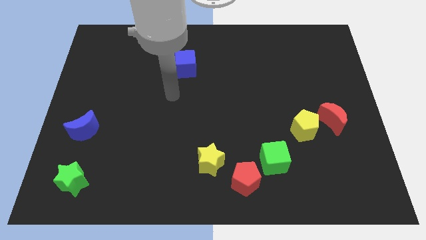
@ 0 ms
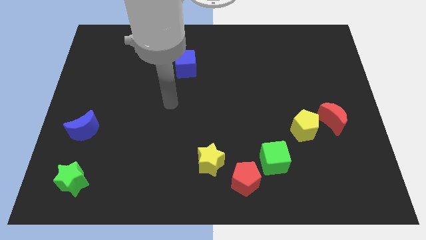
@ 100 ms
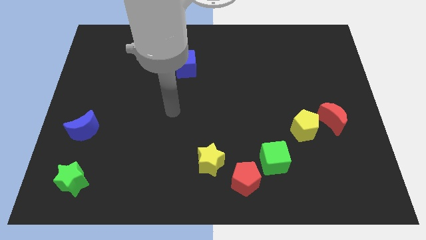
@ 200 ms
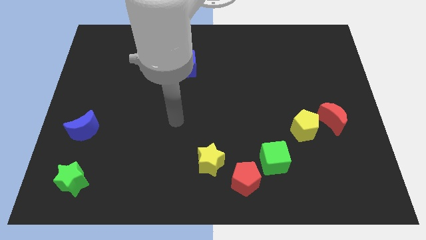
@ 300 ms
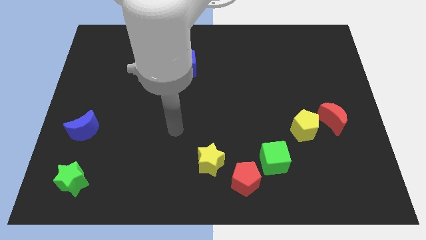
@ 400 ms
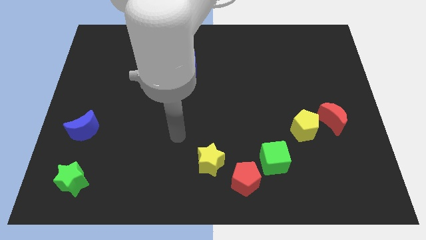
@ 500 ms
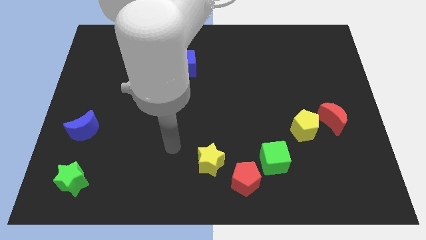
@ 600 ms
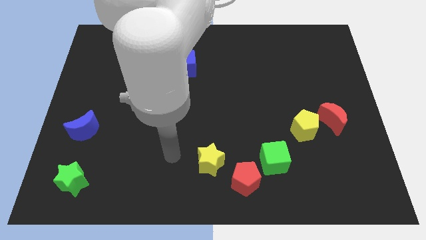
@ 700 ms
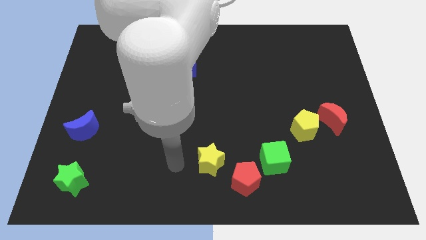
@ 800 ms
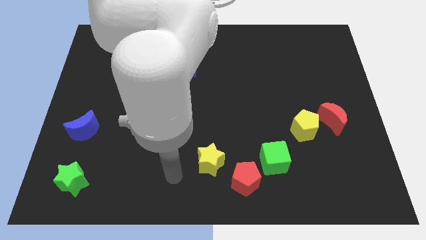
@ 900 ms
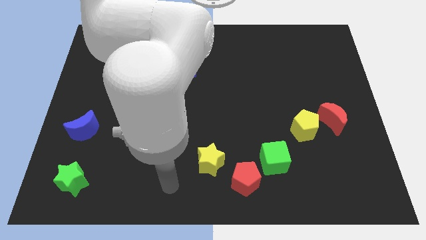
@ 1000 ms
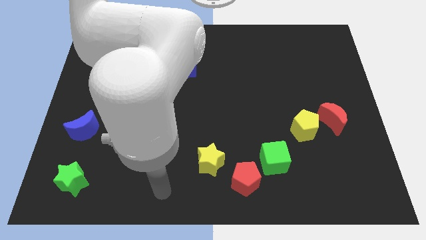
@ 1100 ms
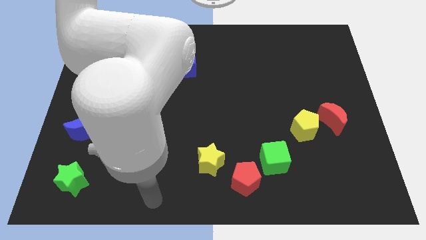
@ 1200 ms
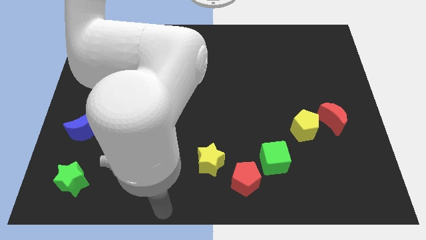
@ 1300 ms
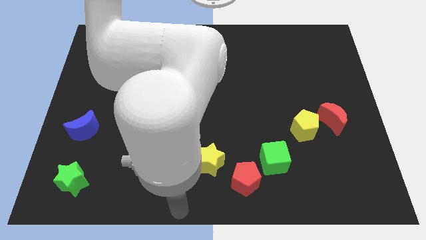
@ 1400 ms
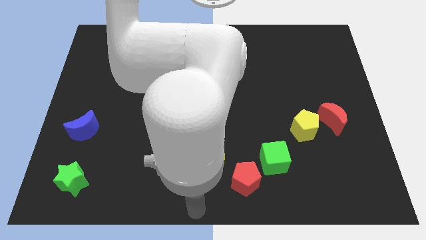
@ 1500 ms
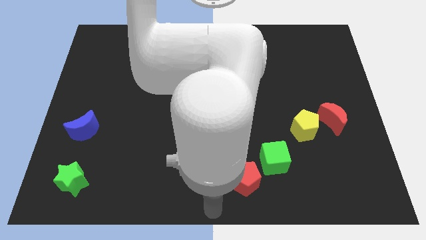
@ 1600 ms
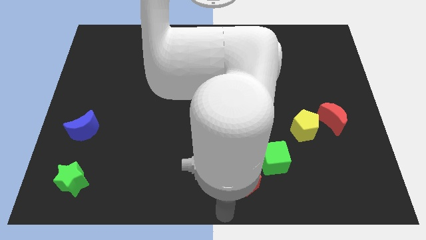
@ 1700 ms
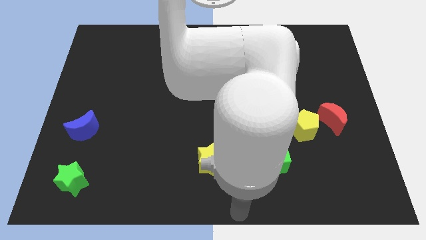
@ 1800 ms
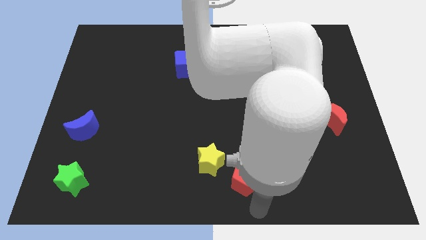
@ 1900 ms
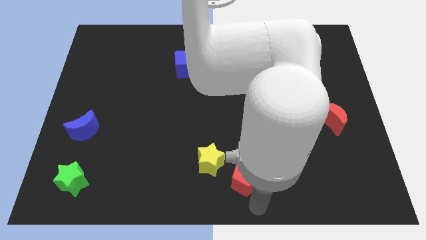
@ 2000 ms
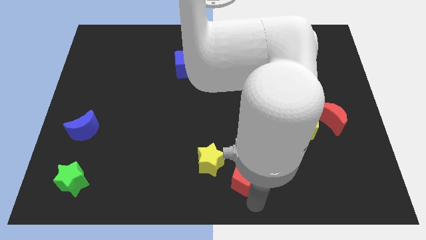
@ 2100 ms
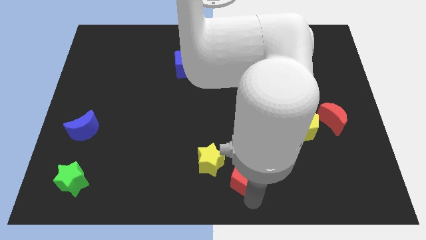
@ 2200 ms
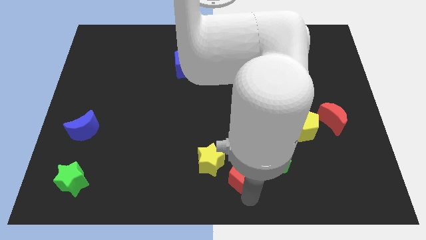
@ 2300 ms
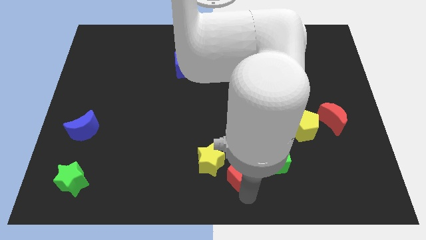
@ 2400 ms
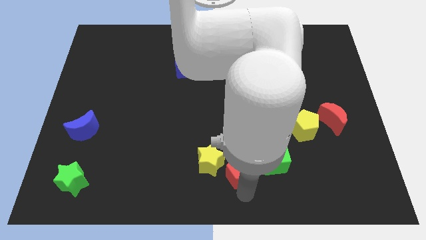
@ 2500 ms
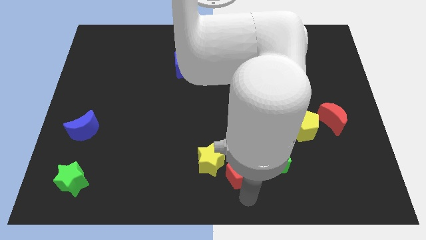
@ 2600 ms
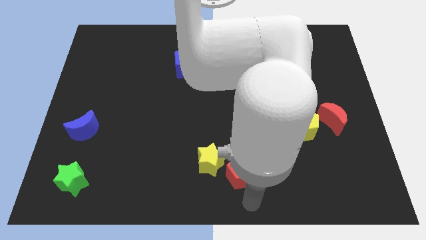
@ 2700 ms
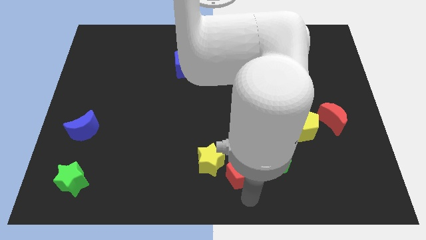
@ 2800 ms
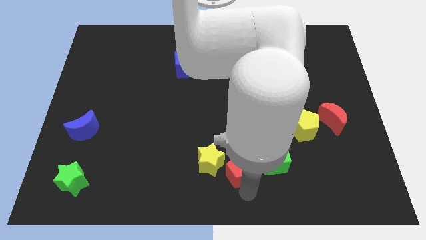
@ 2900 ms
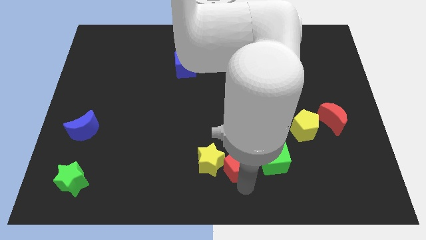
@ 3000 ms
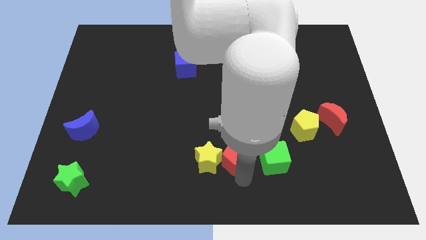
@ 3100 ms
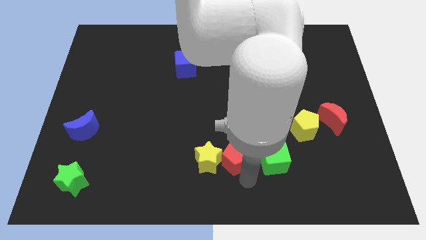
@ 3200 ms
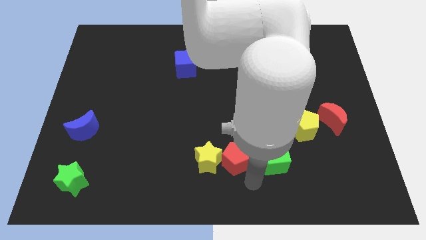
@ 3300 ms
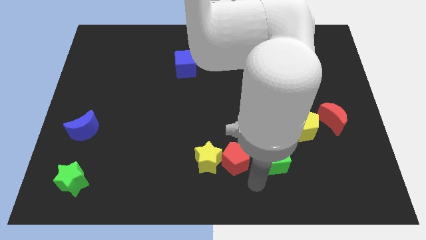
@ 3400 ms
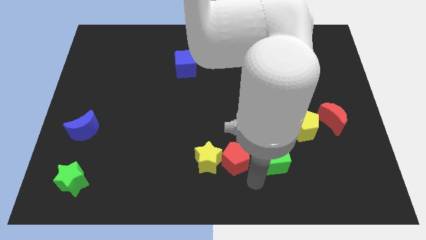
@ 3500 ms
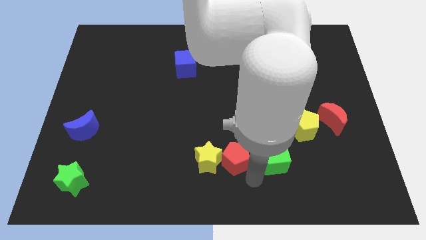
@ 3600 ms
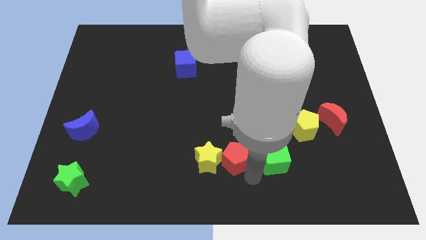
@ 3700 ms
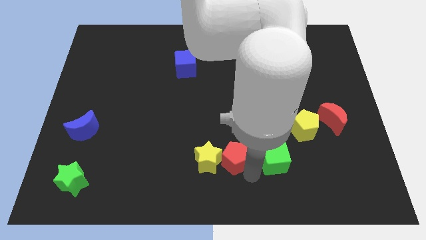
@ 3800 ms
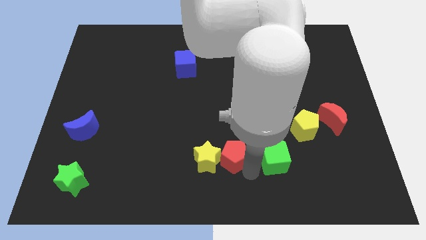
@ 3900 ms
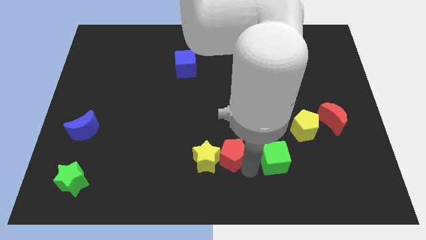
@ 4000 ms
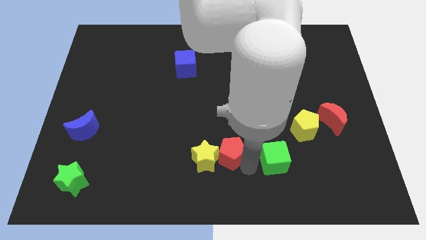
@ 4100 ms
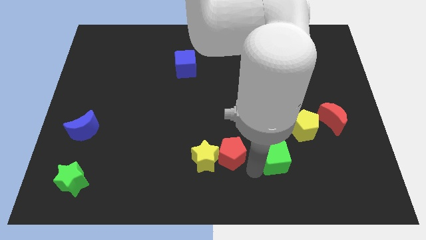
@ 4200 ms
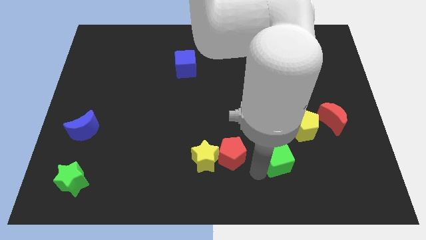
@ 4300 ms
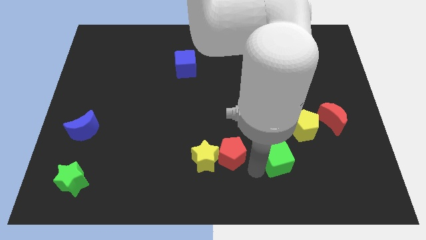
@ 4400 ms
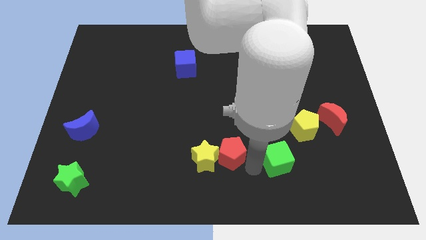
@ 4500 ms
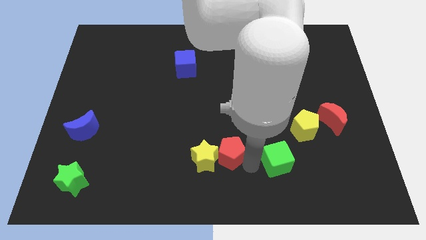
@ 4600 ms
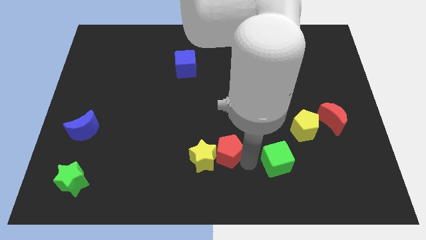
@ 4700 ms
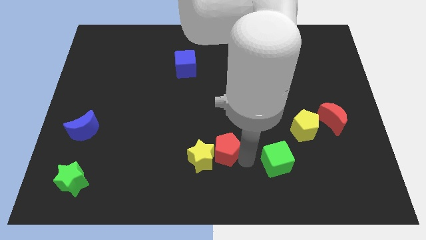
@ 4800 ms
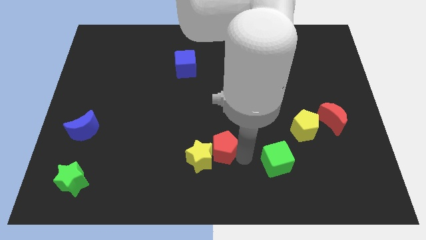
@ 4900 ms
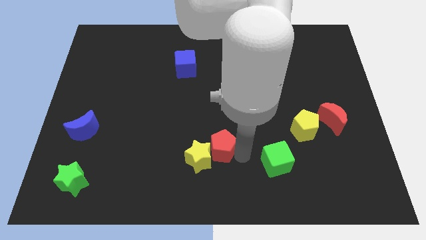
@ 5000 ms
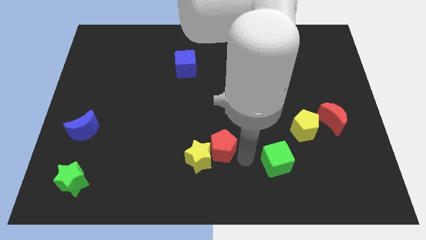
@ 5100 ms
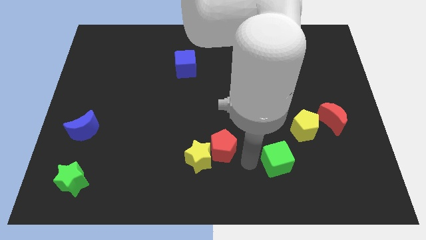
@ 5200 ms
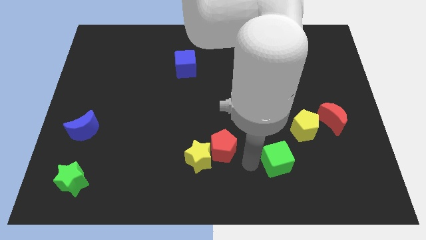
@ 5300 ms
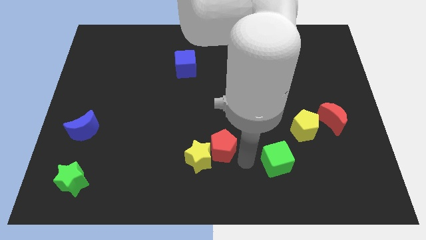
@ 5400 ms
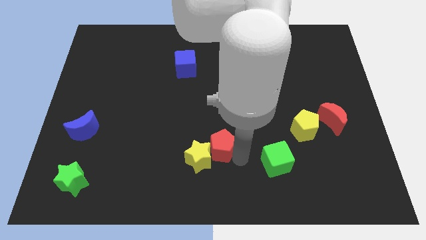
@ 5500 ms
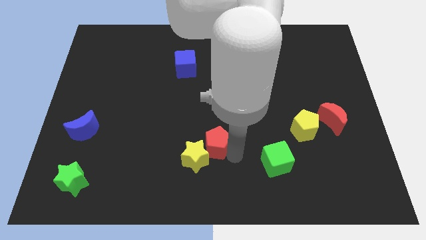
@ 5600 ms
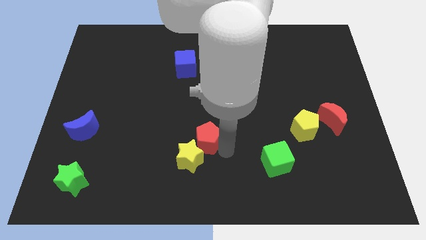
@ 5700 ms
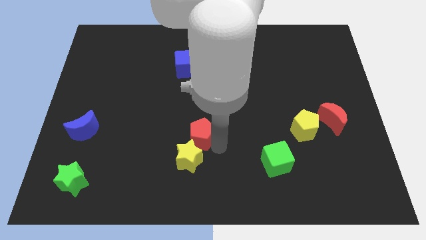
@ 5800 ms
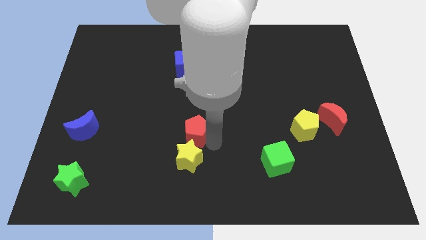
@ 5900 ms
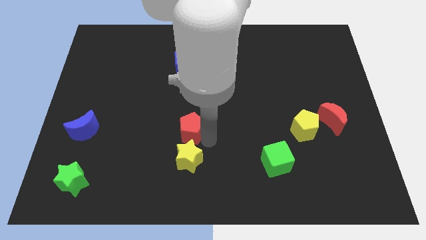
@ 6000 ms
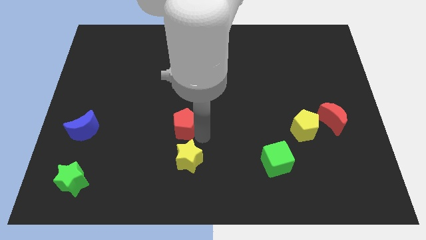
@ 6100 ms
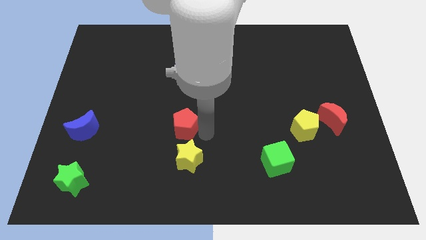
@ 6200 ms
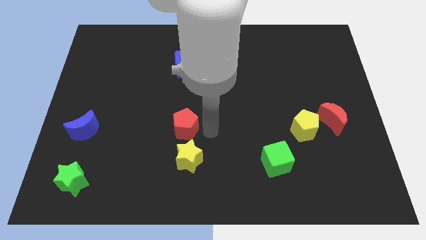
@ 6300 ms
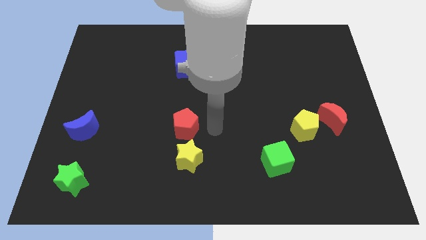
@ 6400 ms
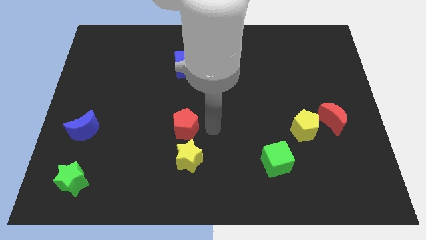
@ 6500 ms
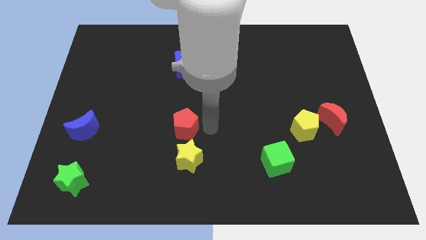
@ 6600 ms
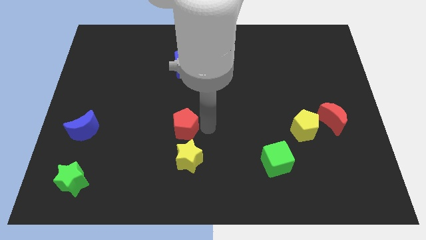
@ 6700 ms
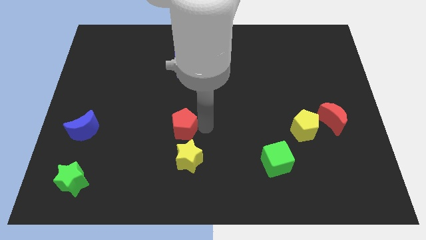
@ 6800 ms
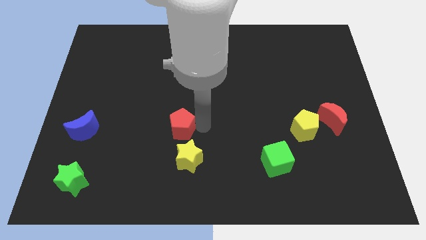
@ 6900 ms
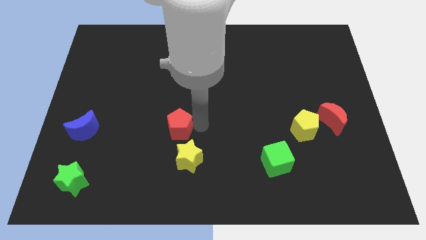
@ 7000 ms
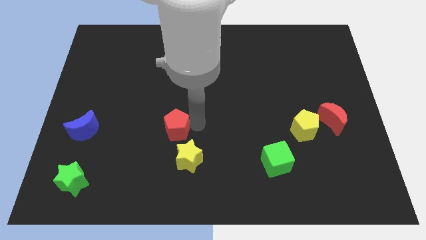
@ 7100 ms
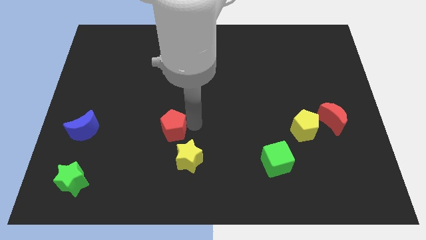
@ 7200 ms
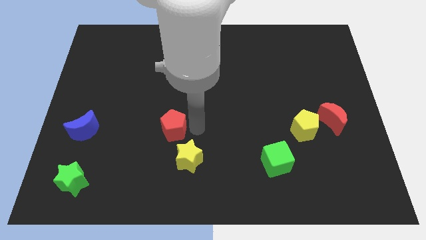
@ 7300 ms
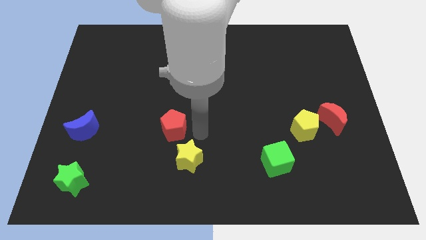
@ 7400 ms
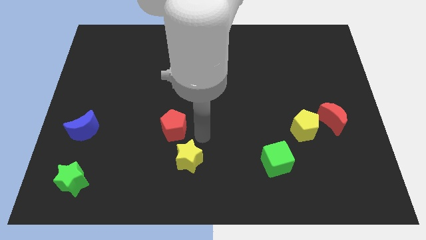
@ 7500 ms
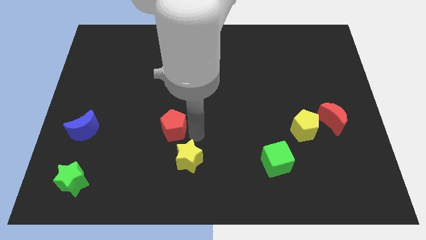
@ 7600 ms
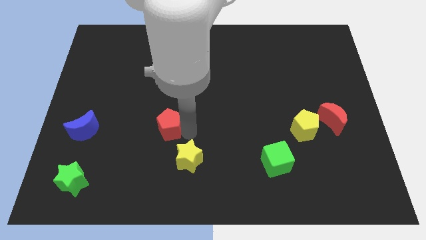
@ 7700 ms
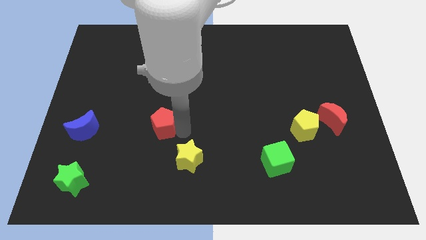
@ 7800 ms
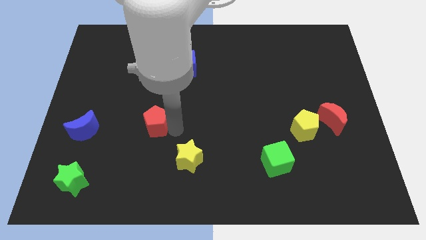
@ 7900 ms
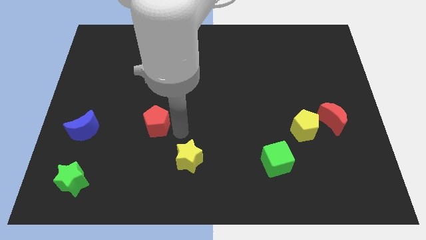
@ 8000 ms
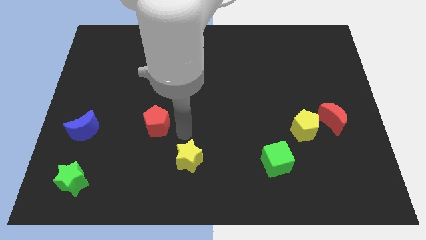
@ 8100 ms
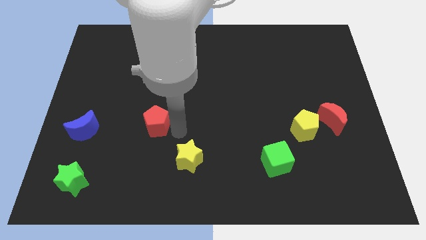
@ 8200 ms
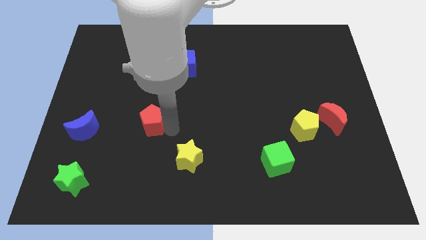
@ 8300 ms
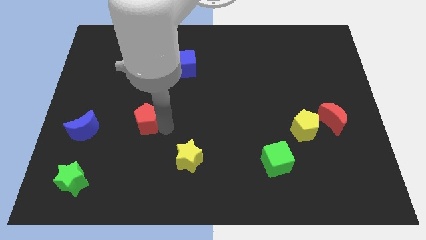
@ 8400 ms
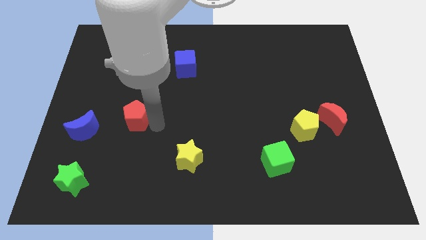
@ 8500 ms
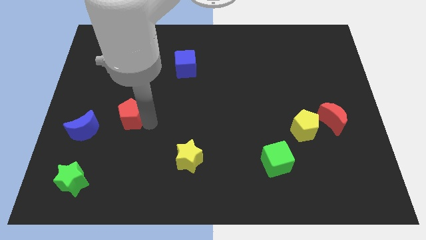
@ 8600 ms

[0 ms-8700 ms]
push the red pentagon diagonally up and to the right of the blue moon
